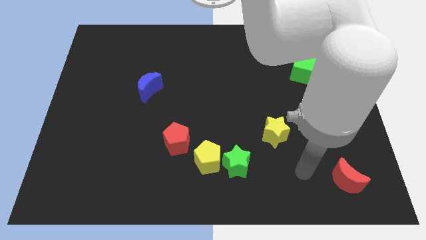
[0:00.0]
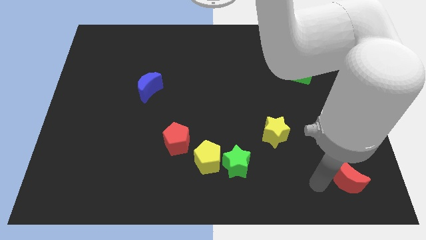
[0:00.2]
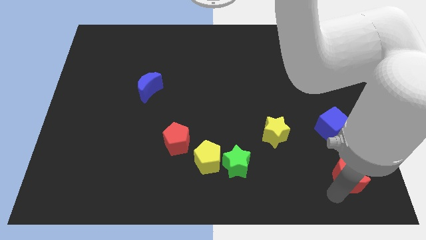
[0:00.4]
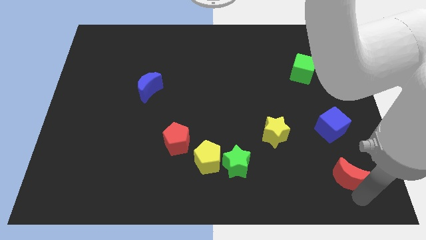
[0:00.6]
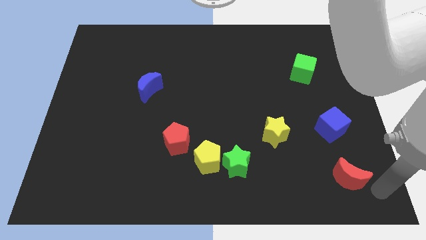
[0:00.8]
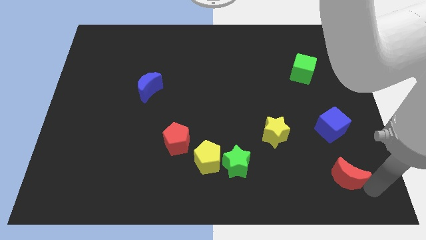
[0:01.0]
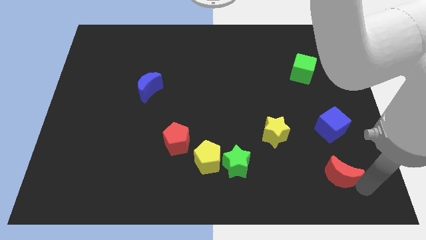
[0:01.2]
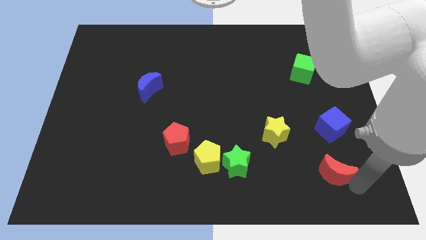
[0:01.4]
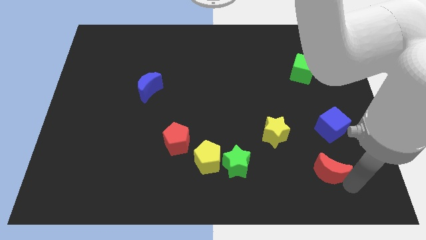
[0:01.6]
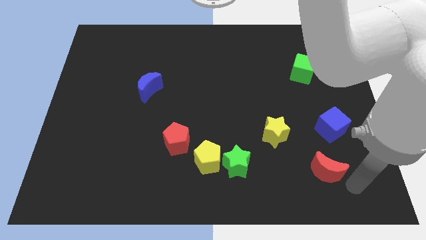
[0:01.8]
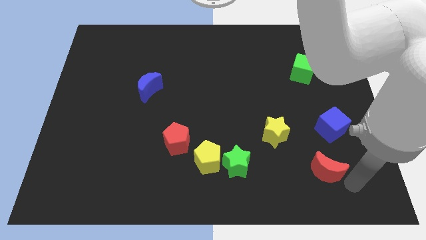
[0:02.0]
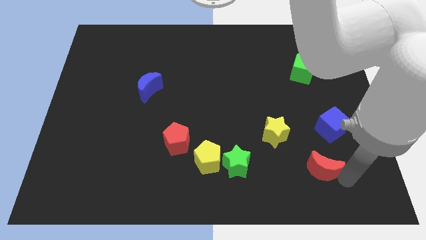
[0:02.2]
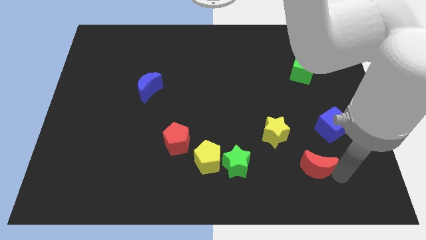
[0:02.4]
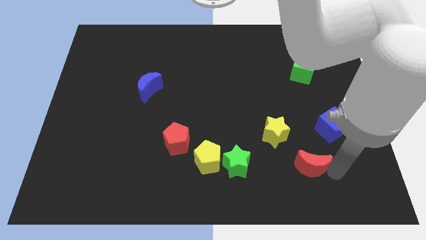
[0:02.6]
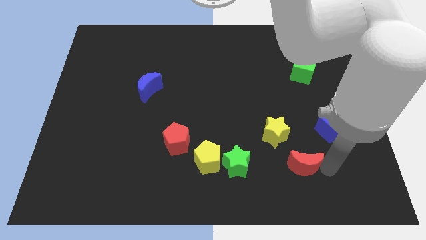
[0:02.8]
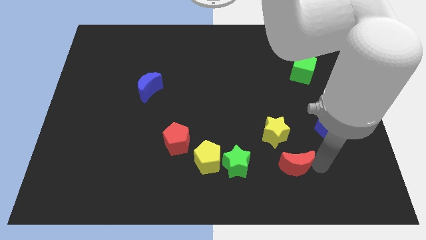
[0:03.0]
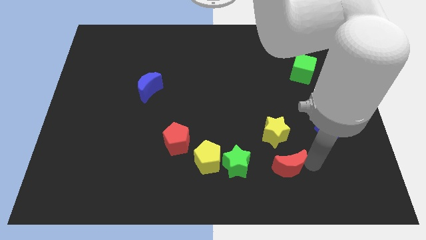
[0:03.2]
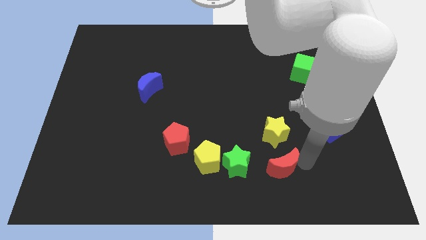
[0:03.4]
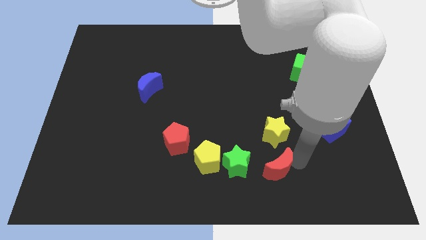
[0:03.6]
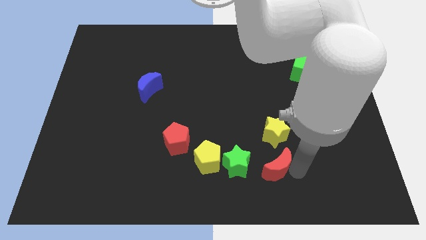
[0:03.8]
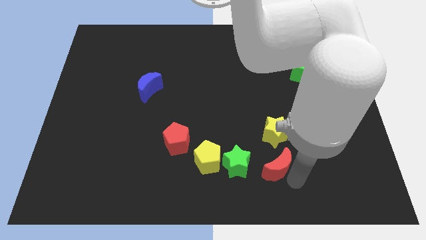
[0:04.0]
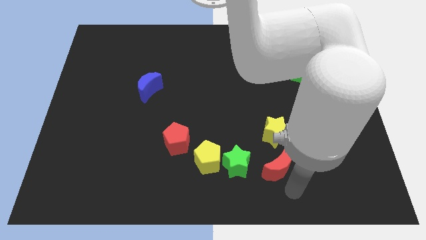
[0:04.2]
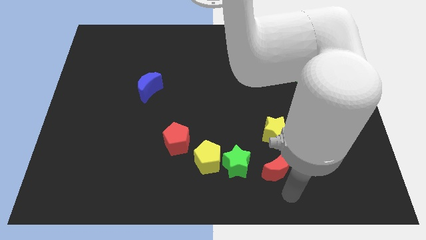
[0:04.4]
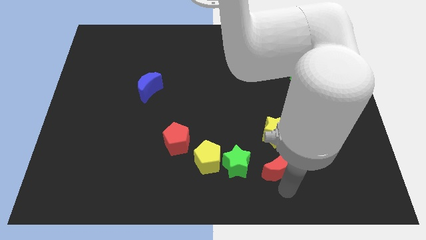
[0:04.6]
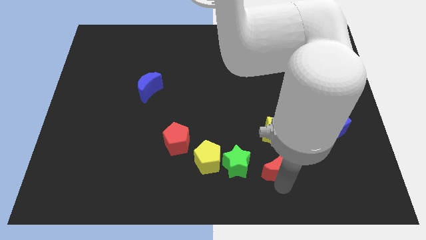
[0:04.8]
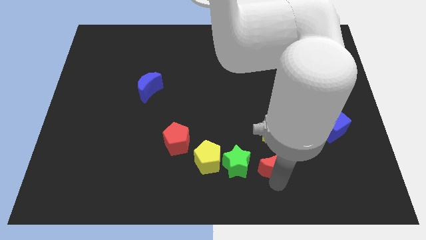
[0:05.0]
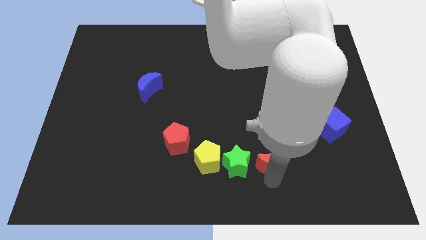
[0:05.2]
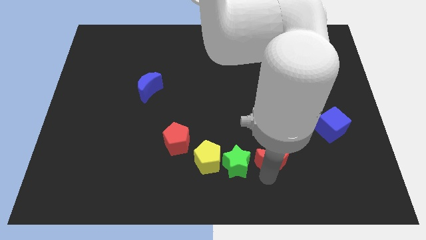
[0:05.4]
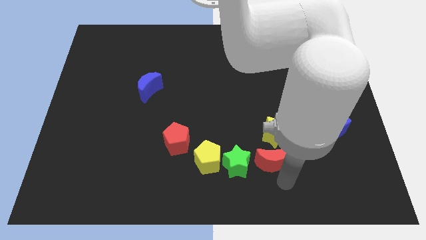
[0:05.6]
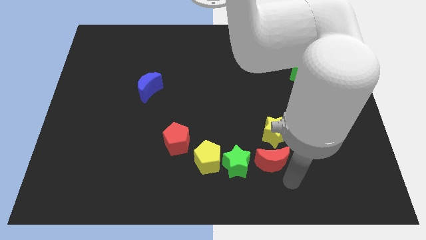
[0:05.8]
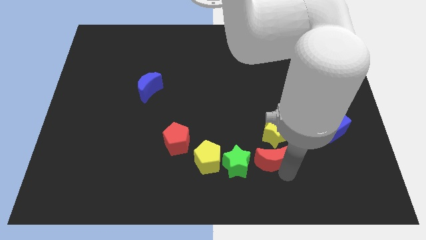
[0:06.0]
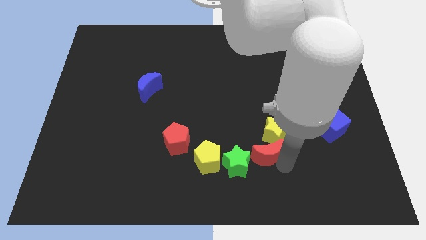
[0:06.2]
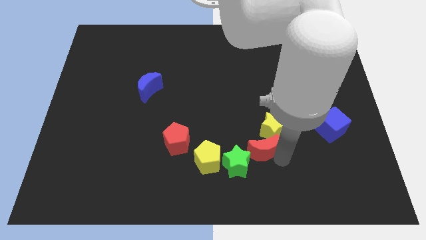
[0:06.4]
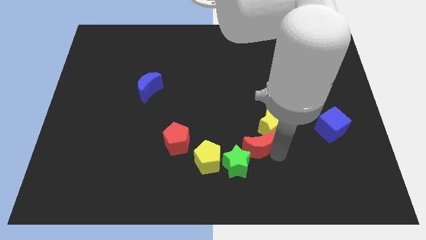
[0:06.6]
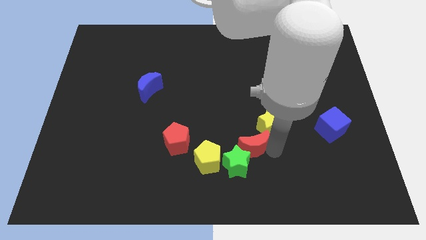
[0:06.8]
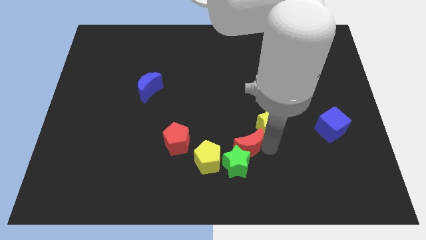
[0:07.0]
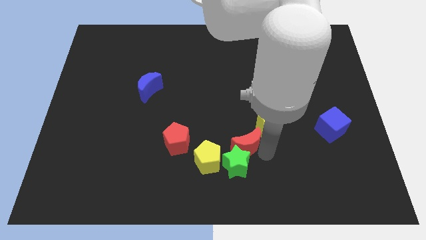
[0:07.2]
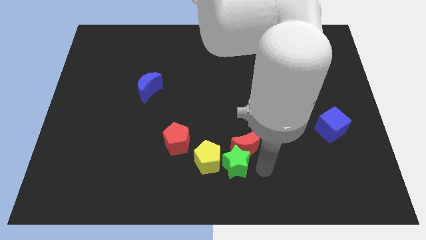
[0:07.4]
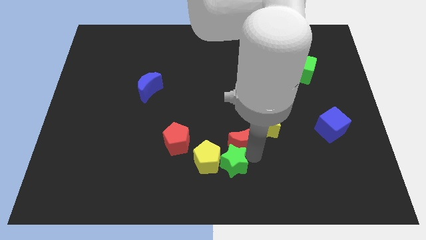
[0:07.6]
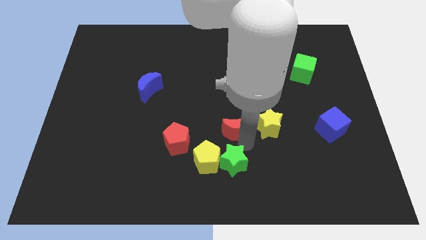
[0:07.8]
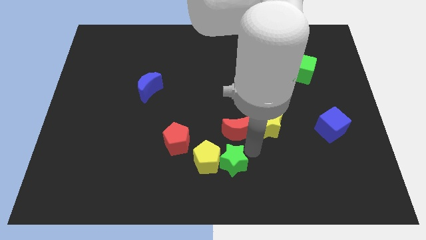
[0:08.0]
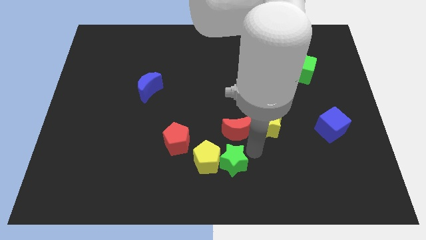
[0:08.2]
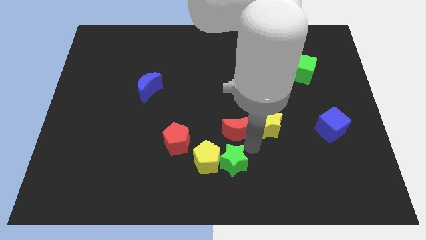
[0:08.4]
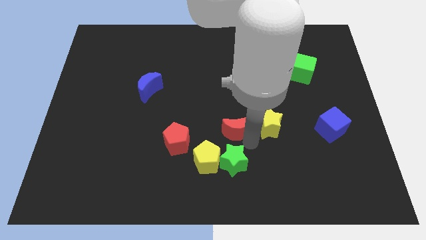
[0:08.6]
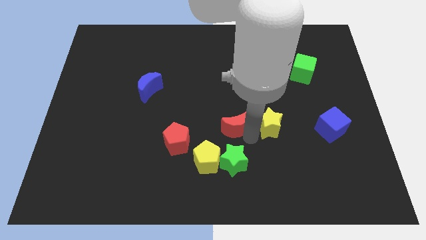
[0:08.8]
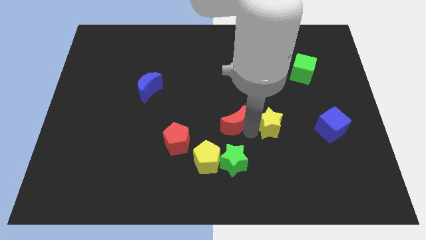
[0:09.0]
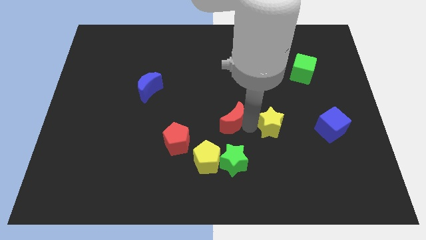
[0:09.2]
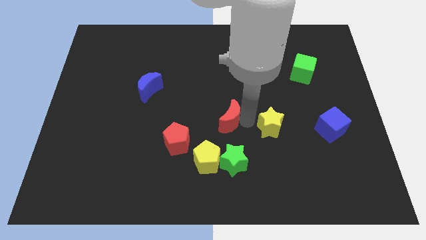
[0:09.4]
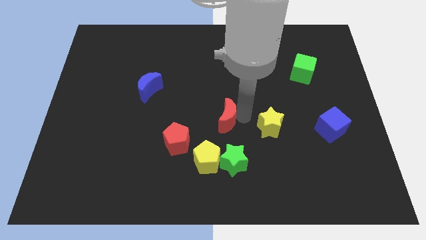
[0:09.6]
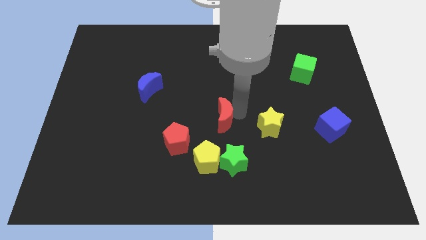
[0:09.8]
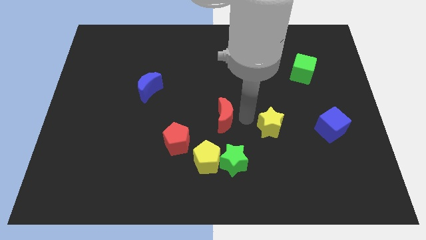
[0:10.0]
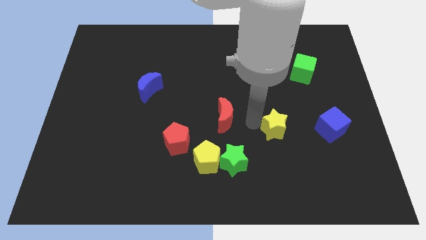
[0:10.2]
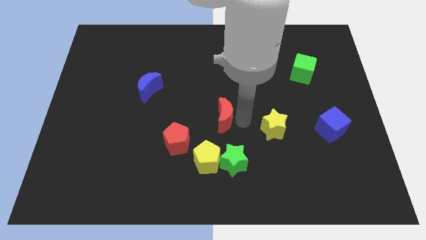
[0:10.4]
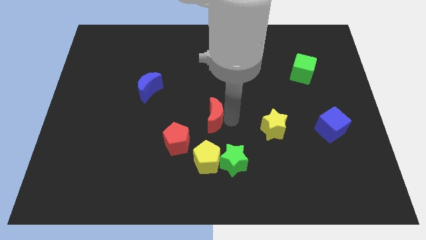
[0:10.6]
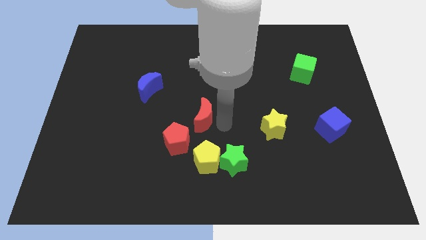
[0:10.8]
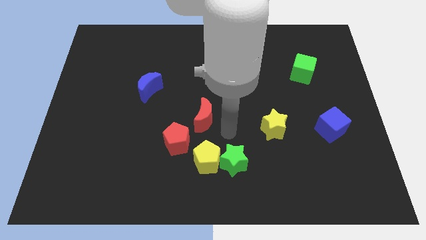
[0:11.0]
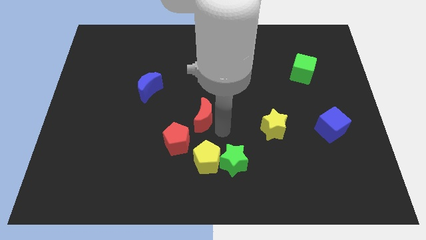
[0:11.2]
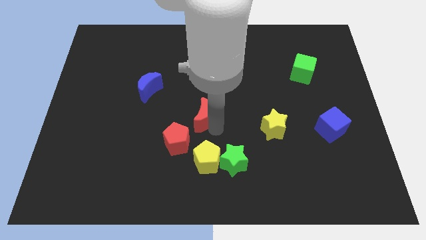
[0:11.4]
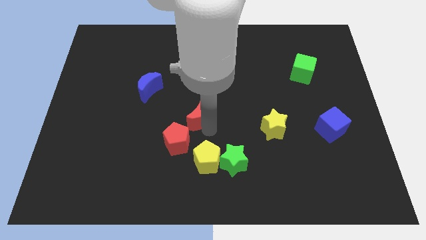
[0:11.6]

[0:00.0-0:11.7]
put the red moon to the top of the red pentagon

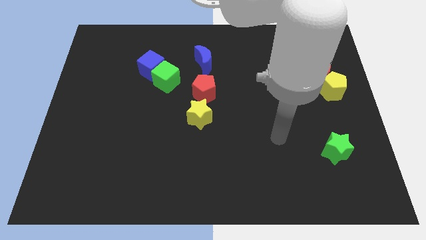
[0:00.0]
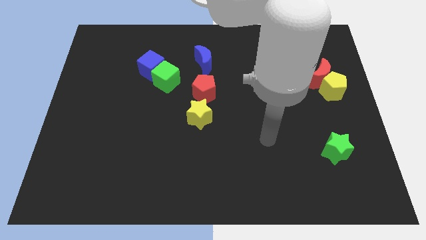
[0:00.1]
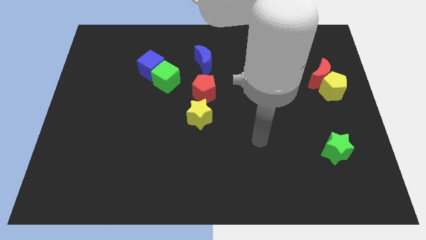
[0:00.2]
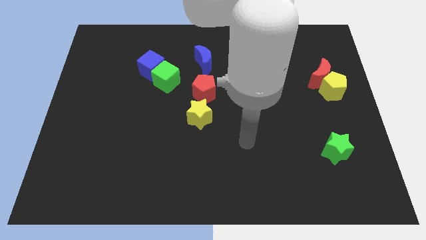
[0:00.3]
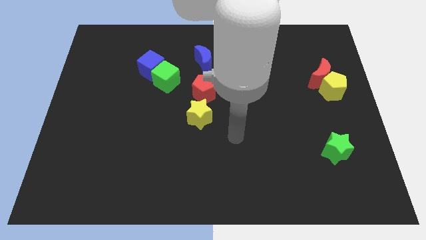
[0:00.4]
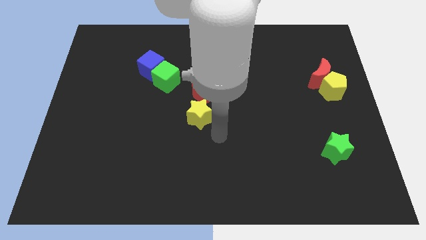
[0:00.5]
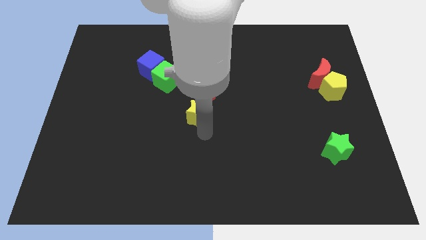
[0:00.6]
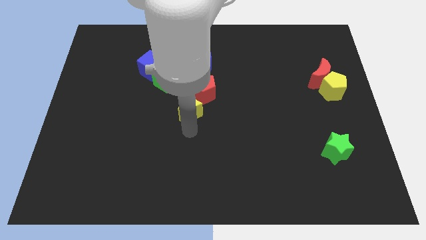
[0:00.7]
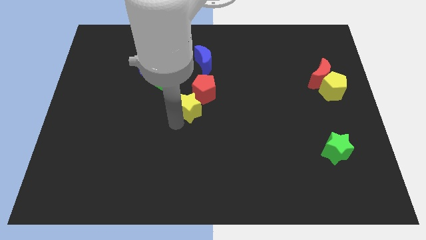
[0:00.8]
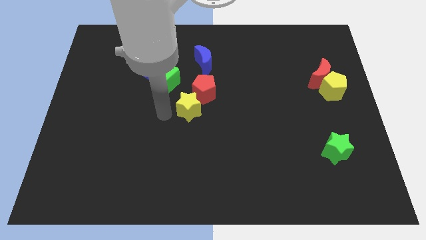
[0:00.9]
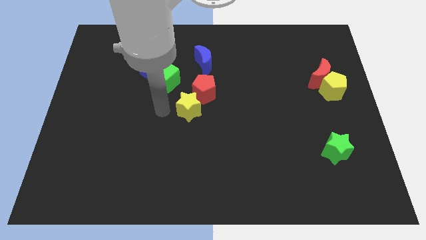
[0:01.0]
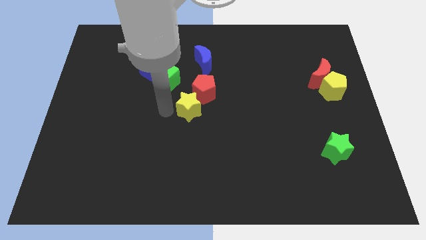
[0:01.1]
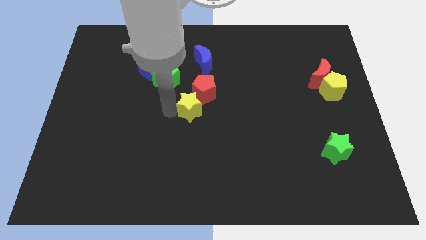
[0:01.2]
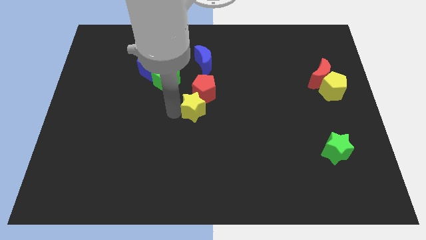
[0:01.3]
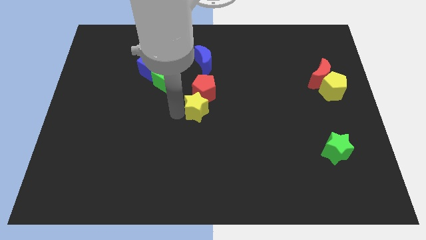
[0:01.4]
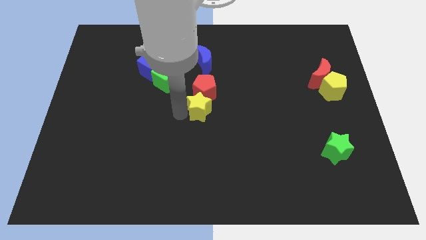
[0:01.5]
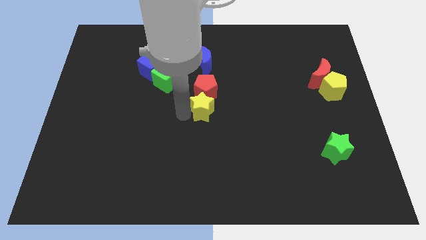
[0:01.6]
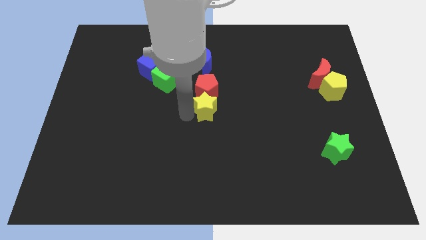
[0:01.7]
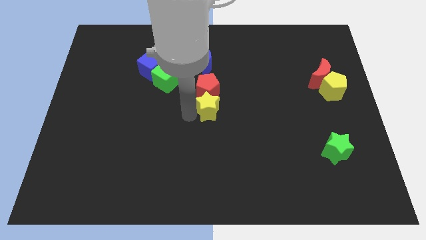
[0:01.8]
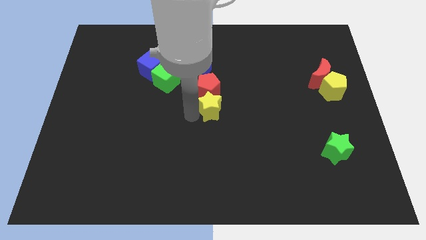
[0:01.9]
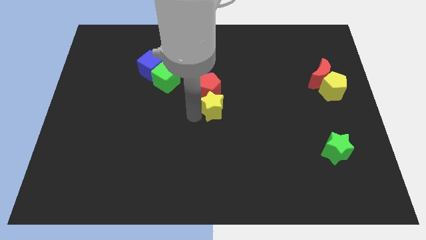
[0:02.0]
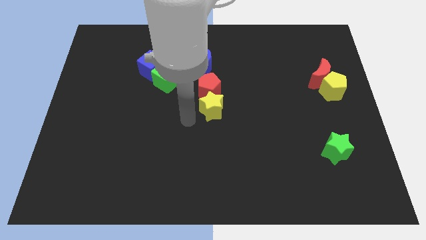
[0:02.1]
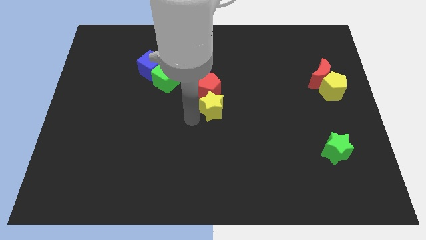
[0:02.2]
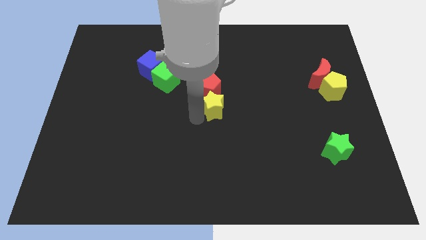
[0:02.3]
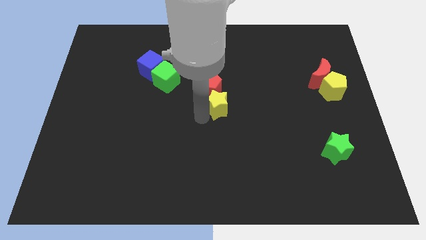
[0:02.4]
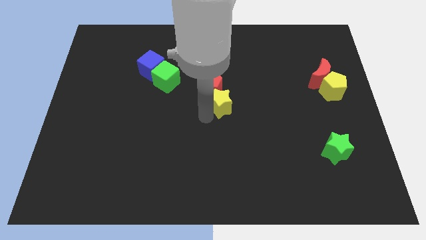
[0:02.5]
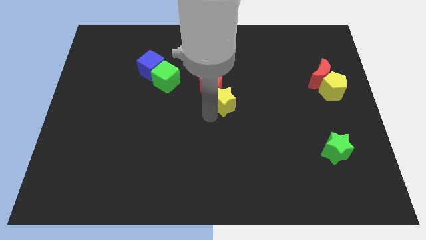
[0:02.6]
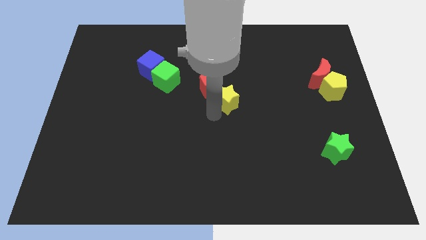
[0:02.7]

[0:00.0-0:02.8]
push the yellow star to the right of the red pentagon
